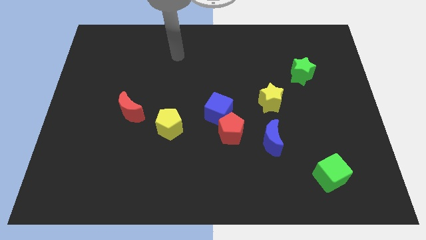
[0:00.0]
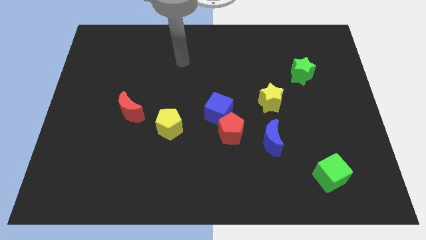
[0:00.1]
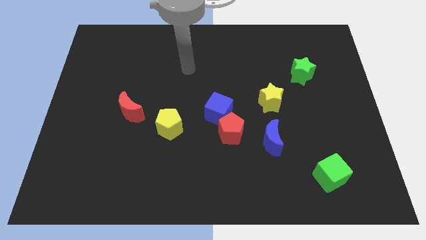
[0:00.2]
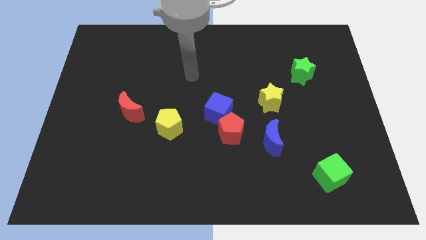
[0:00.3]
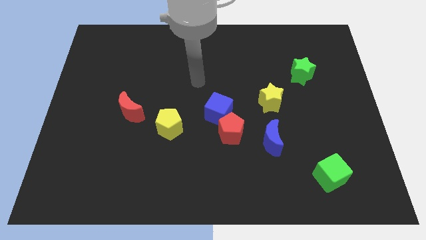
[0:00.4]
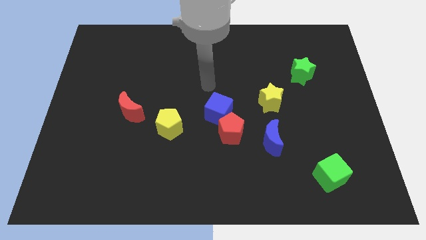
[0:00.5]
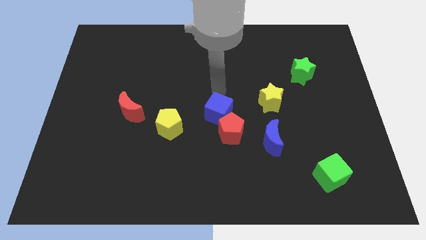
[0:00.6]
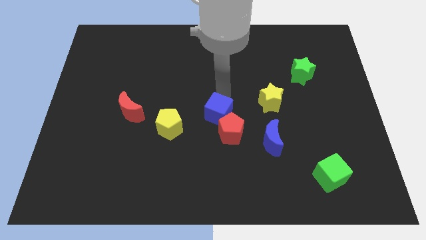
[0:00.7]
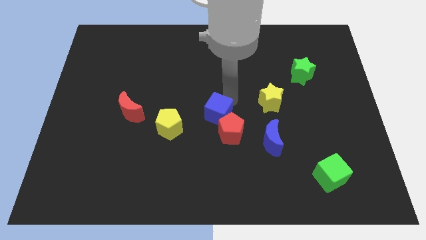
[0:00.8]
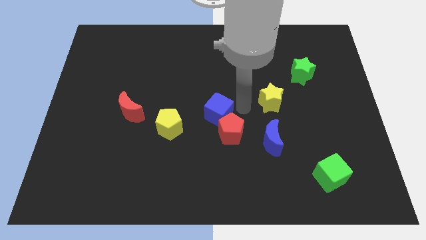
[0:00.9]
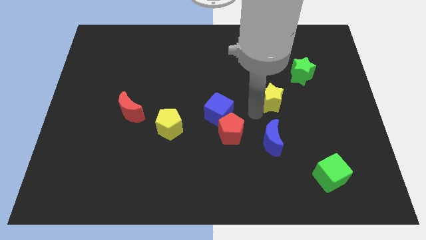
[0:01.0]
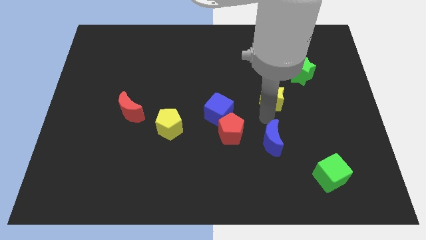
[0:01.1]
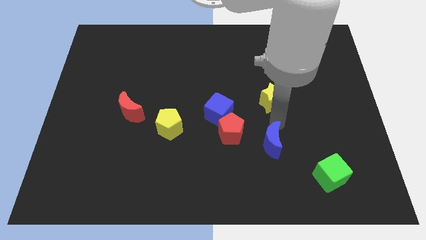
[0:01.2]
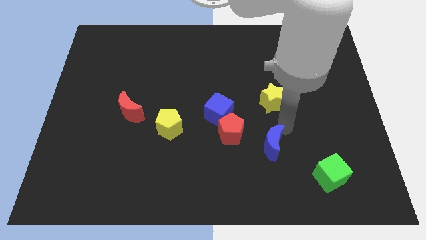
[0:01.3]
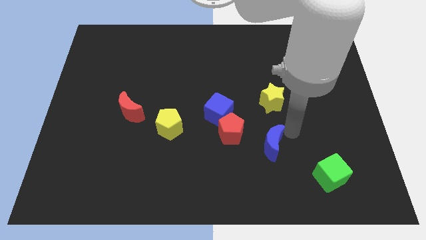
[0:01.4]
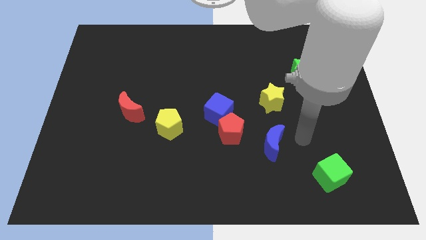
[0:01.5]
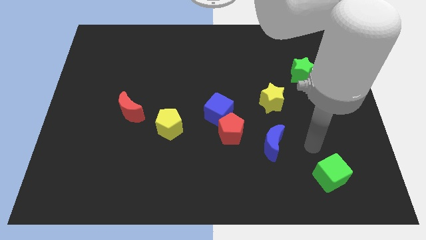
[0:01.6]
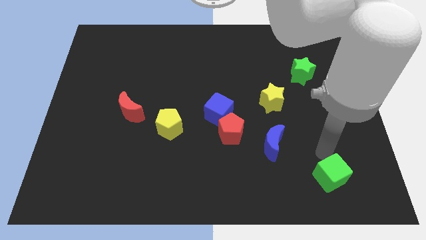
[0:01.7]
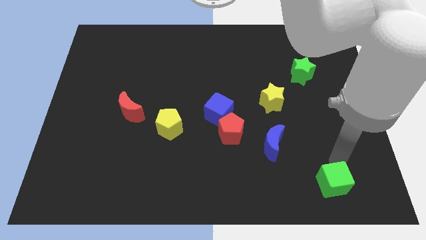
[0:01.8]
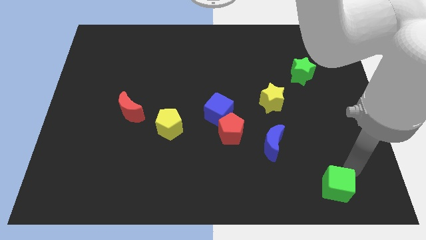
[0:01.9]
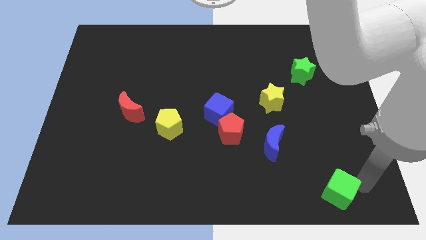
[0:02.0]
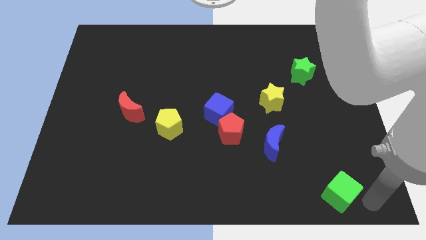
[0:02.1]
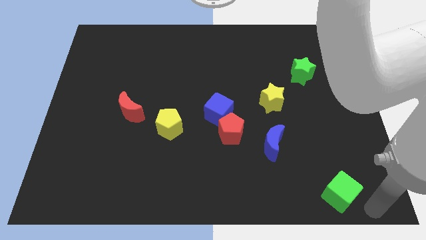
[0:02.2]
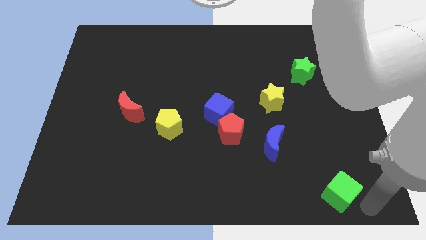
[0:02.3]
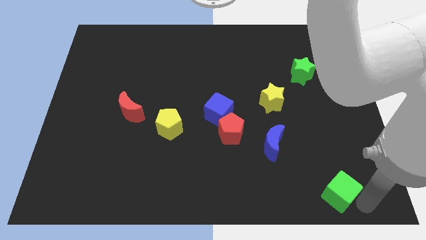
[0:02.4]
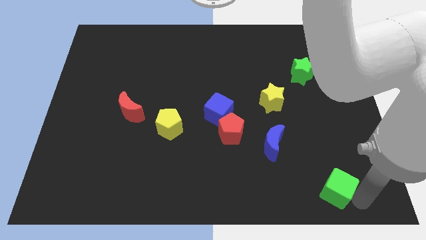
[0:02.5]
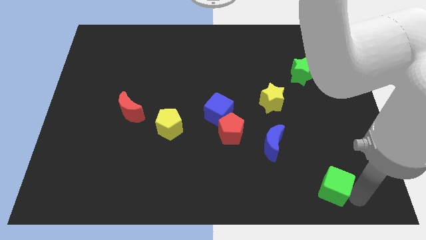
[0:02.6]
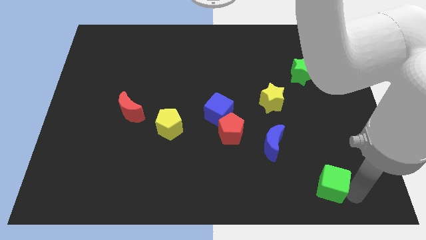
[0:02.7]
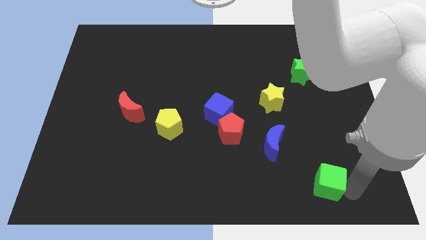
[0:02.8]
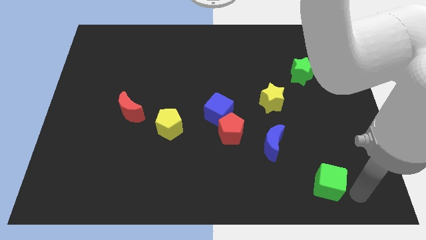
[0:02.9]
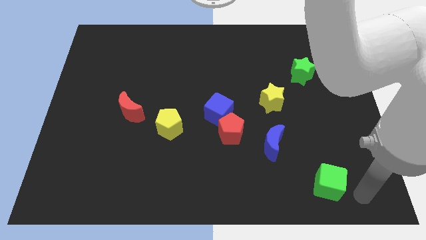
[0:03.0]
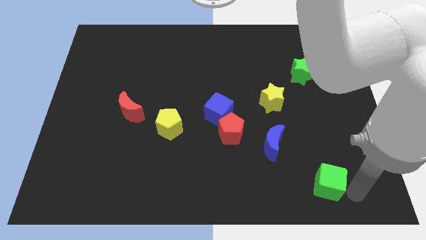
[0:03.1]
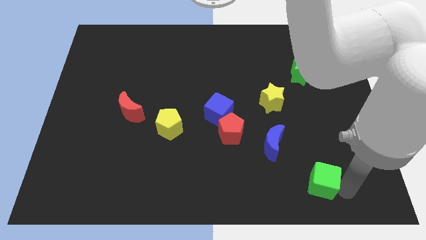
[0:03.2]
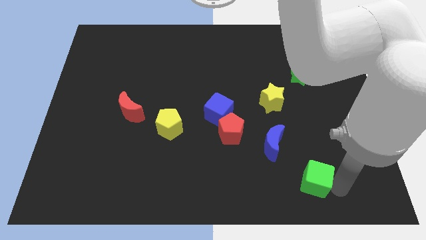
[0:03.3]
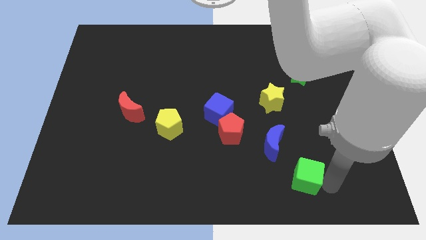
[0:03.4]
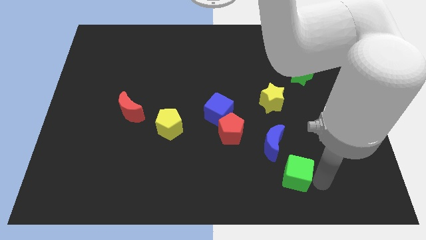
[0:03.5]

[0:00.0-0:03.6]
move the green cube to the left a little bit

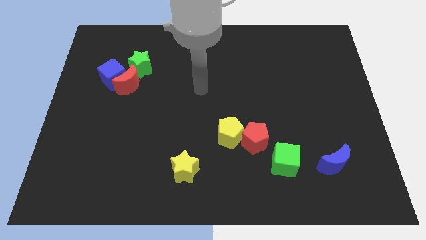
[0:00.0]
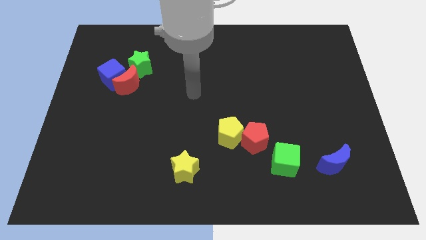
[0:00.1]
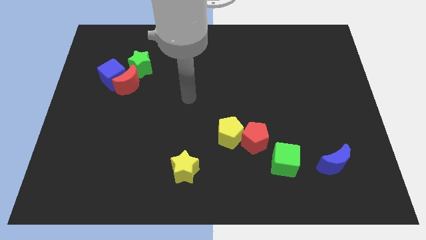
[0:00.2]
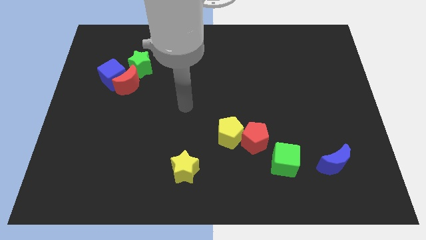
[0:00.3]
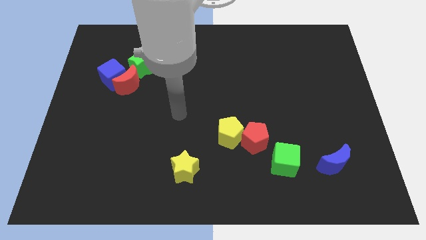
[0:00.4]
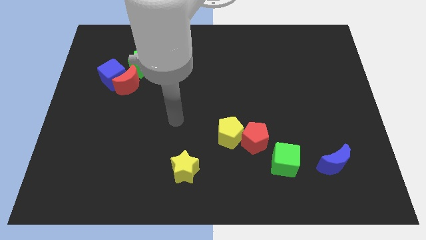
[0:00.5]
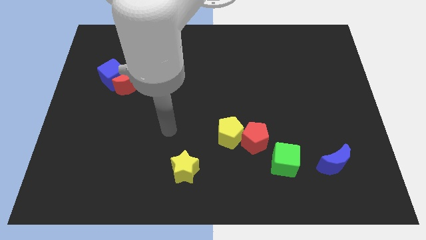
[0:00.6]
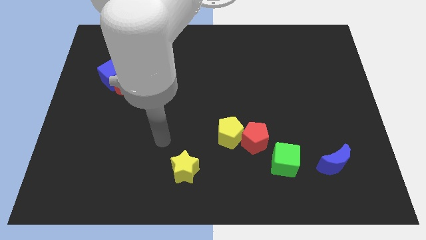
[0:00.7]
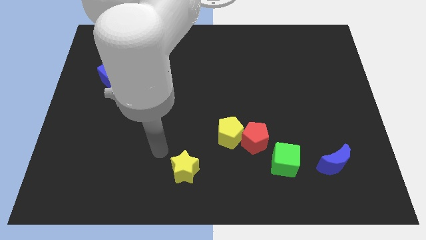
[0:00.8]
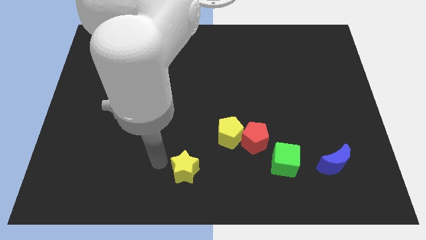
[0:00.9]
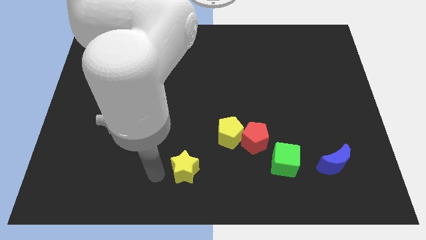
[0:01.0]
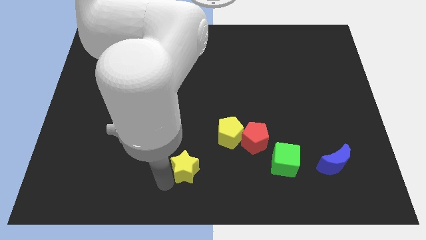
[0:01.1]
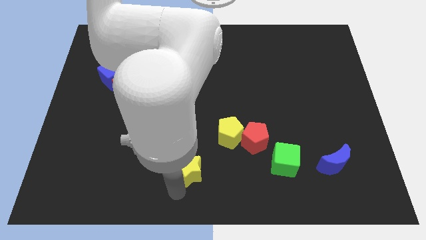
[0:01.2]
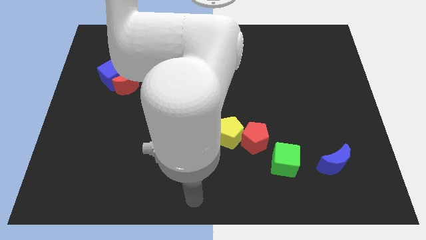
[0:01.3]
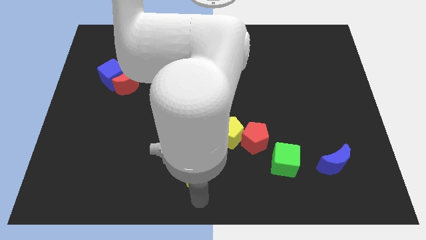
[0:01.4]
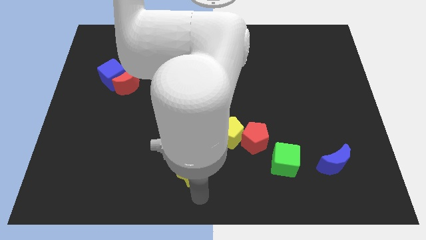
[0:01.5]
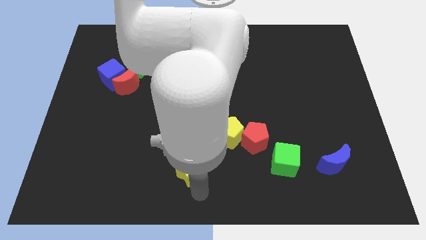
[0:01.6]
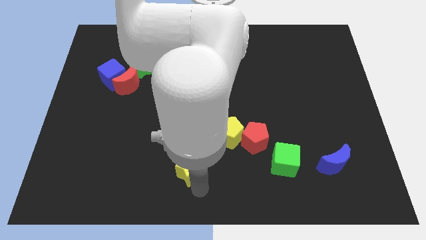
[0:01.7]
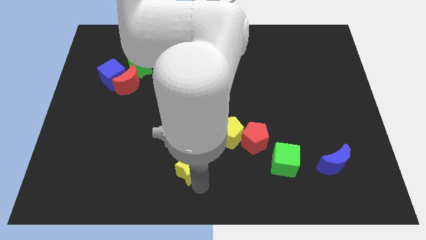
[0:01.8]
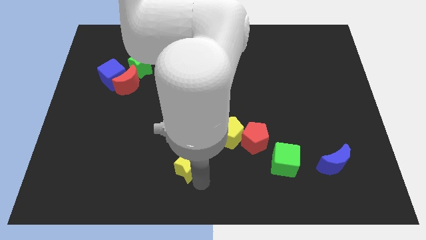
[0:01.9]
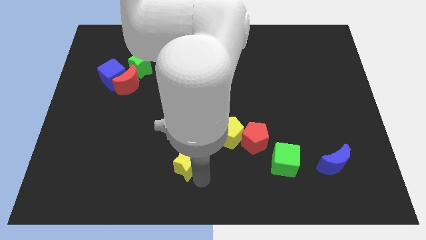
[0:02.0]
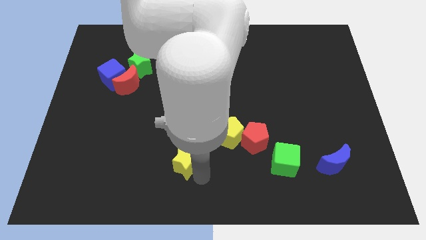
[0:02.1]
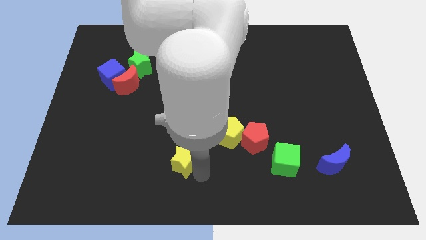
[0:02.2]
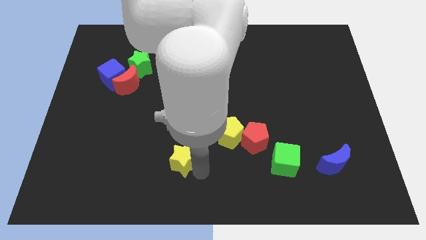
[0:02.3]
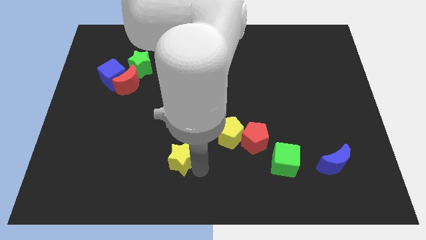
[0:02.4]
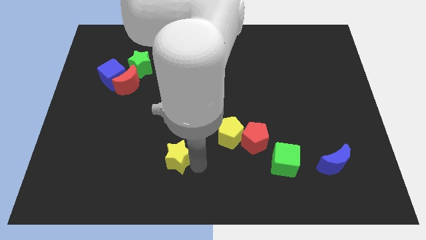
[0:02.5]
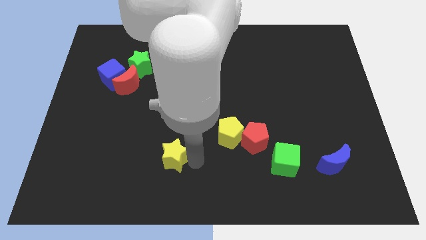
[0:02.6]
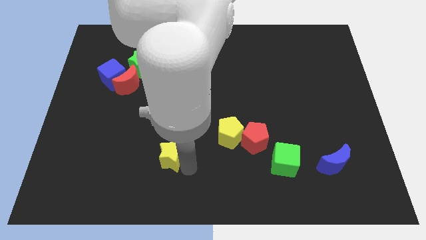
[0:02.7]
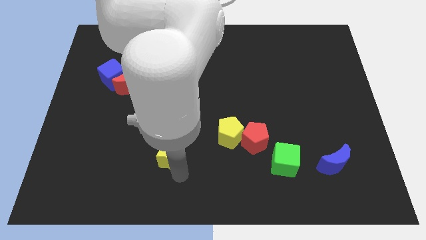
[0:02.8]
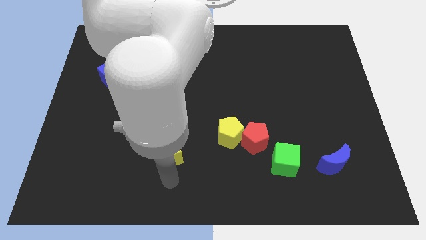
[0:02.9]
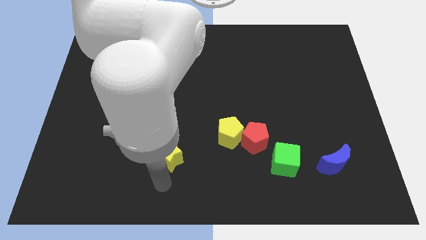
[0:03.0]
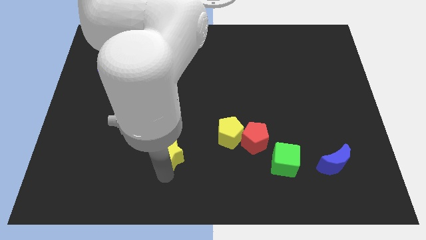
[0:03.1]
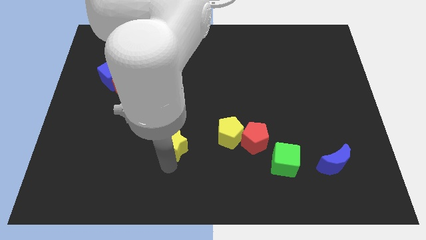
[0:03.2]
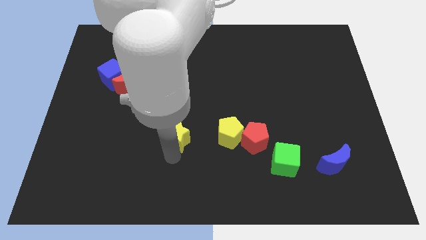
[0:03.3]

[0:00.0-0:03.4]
slightly push the yellow star upwards

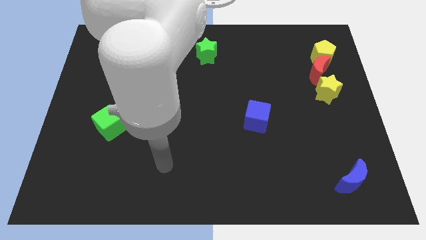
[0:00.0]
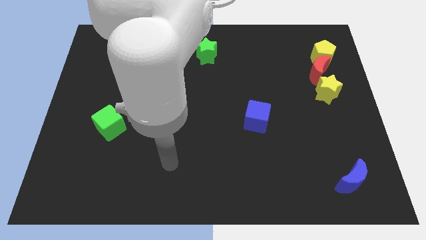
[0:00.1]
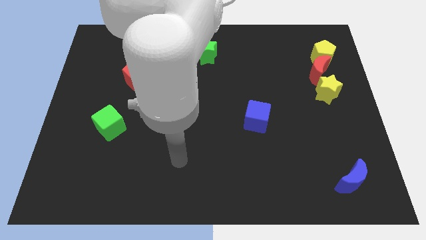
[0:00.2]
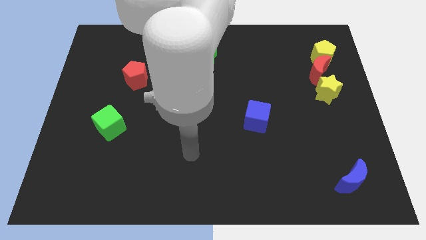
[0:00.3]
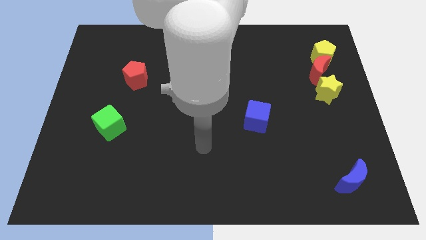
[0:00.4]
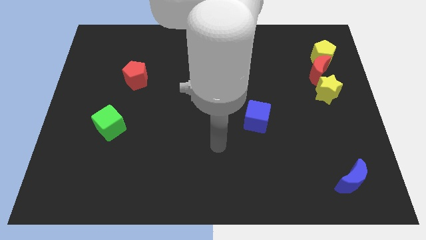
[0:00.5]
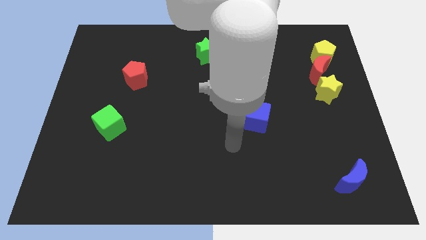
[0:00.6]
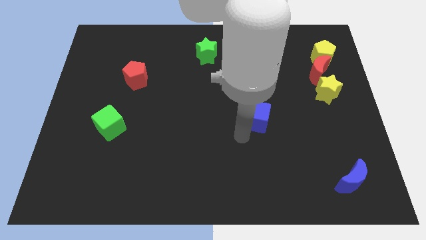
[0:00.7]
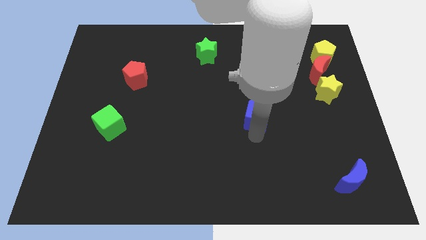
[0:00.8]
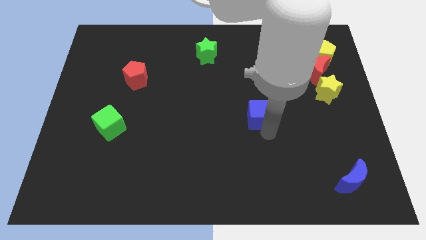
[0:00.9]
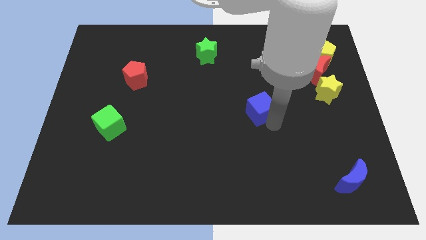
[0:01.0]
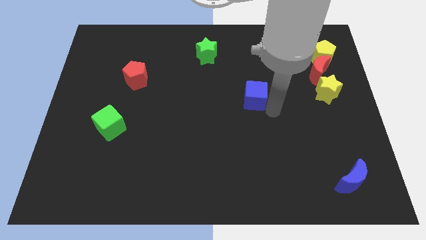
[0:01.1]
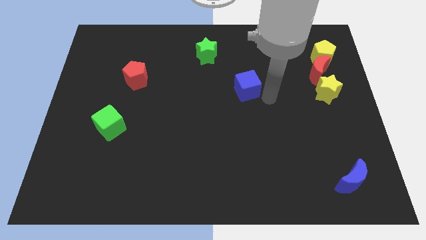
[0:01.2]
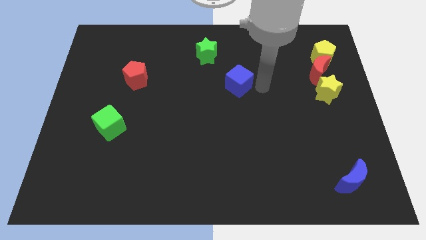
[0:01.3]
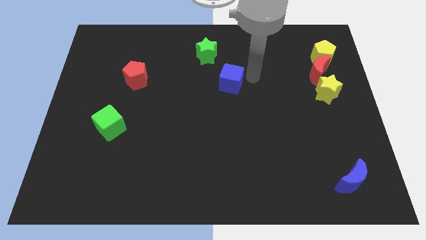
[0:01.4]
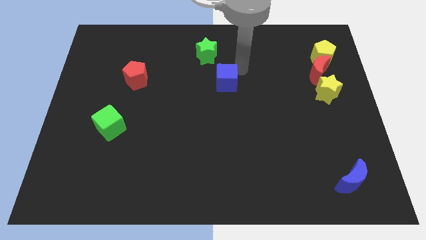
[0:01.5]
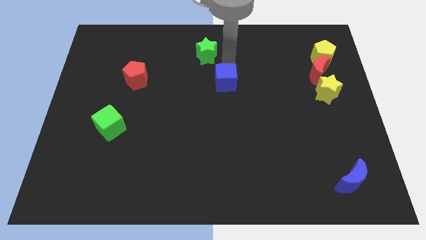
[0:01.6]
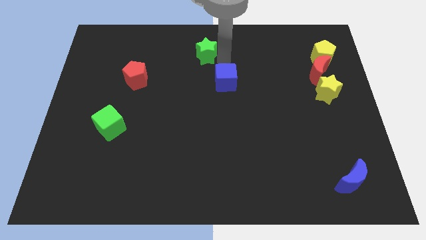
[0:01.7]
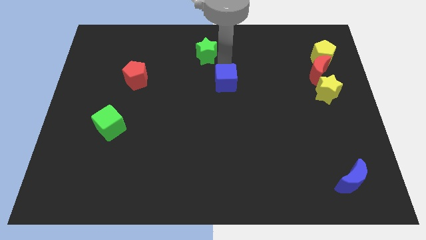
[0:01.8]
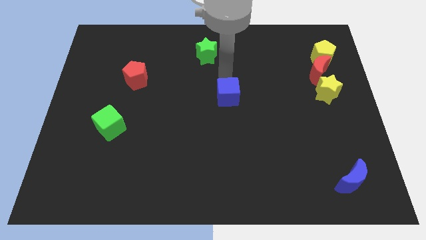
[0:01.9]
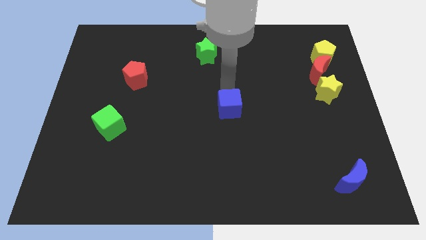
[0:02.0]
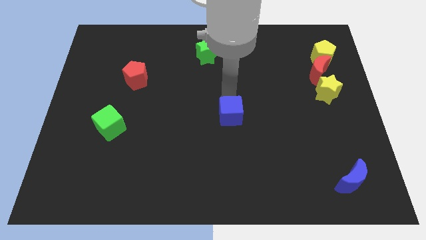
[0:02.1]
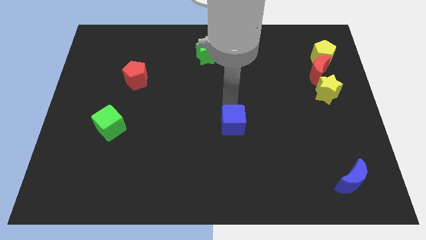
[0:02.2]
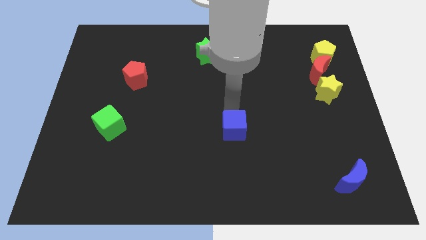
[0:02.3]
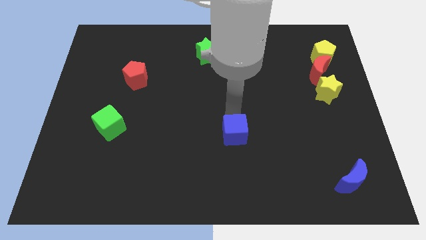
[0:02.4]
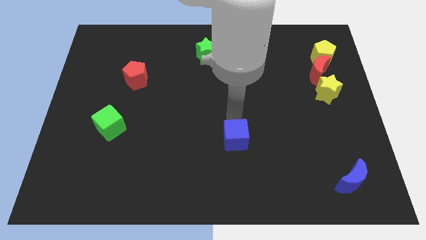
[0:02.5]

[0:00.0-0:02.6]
slide the blue cube down and left diagonally slightly
